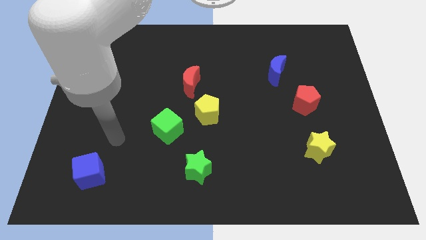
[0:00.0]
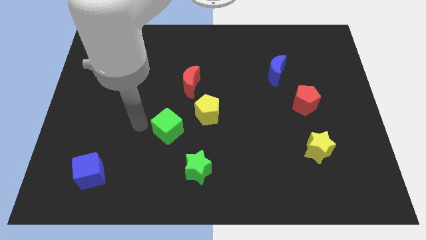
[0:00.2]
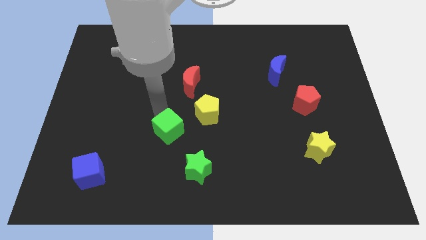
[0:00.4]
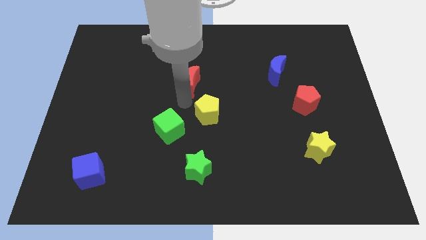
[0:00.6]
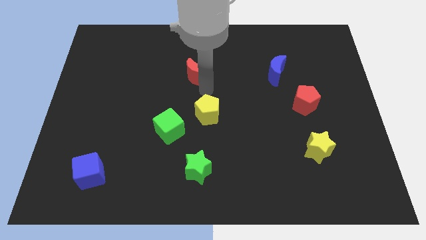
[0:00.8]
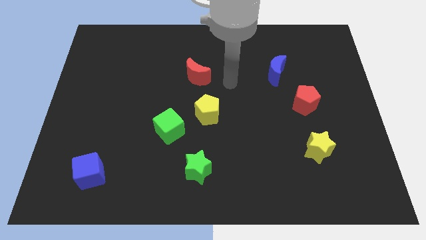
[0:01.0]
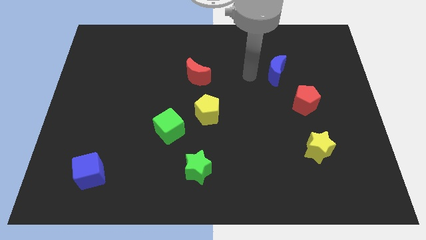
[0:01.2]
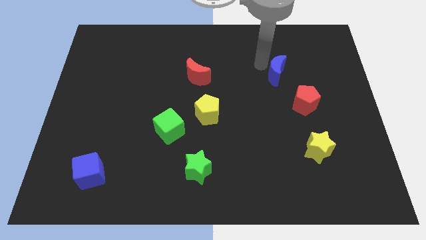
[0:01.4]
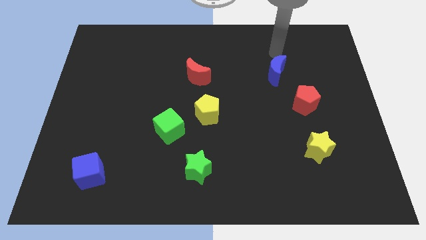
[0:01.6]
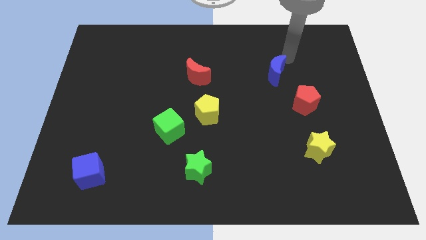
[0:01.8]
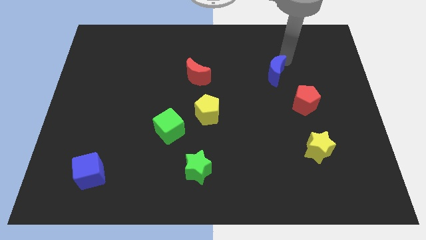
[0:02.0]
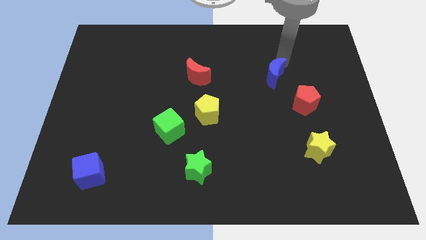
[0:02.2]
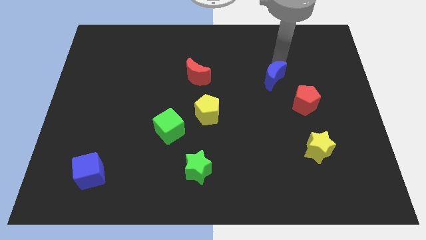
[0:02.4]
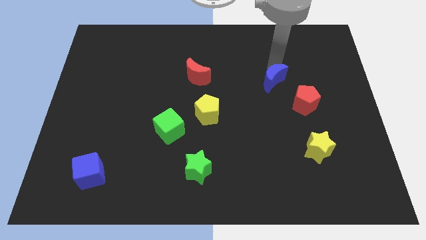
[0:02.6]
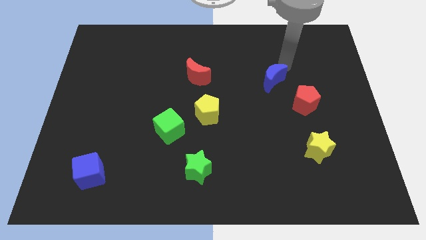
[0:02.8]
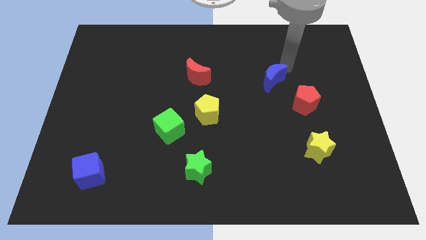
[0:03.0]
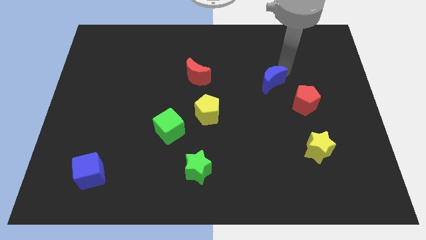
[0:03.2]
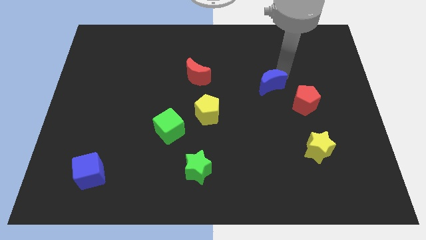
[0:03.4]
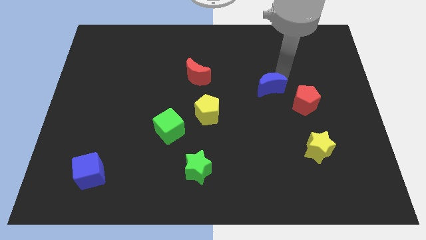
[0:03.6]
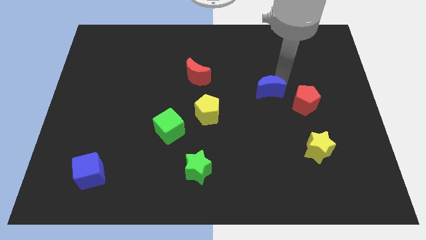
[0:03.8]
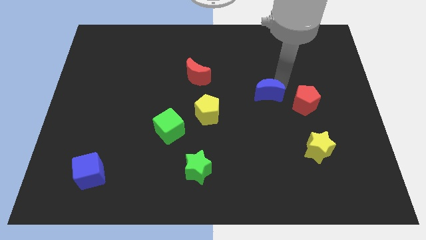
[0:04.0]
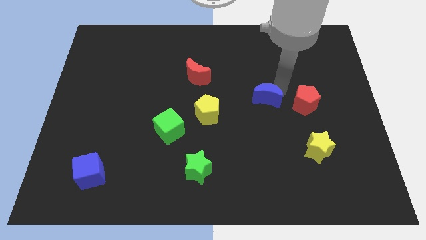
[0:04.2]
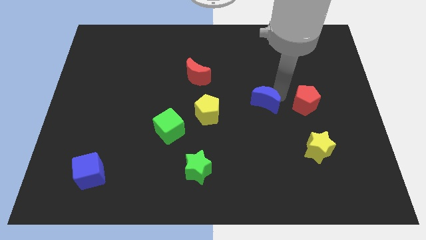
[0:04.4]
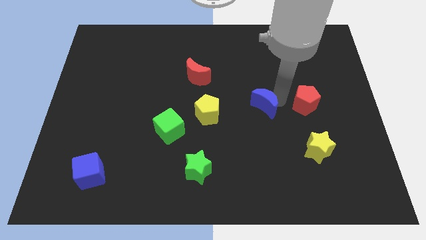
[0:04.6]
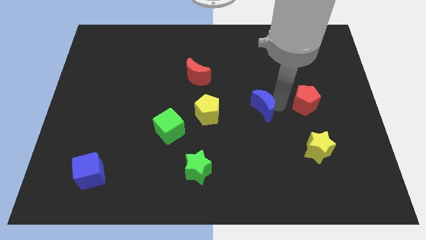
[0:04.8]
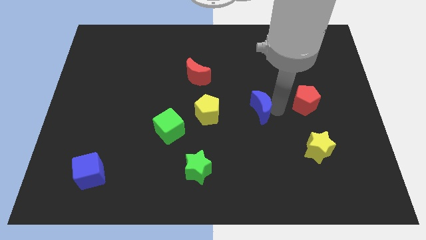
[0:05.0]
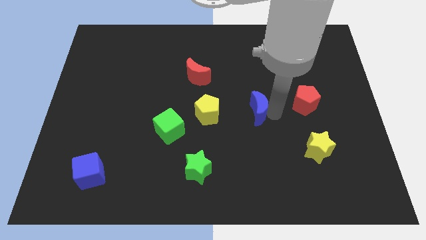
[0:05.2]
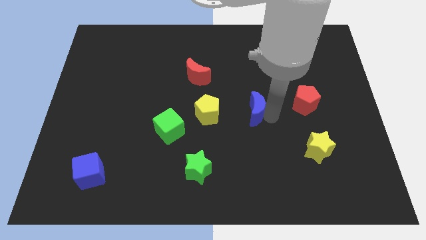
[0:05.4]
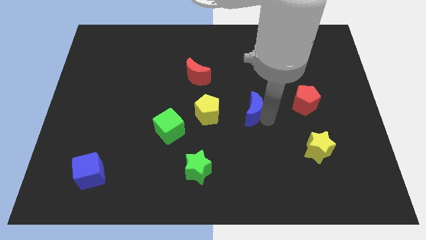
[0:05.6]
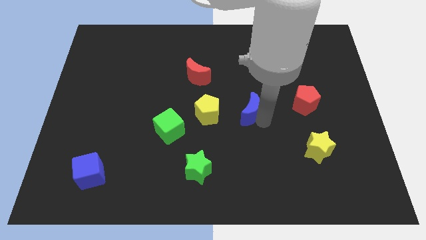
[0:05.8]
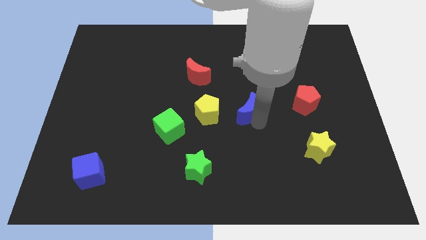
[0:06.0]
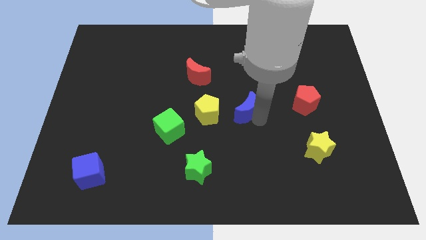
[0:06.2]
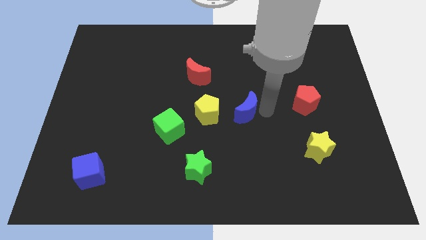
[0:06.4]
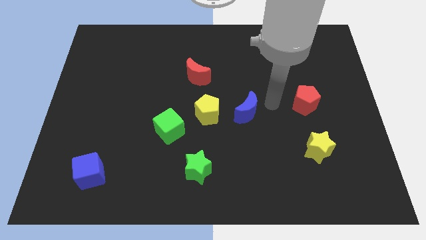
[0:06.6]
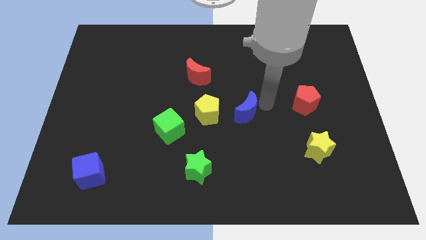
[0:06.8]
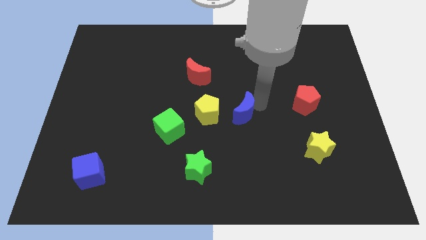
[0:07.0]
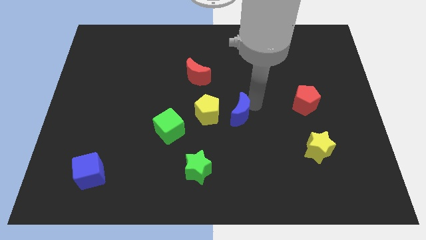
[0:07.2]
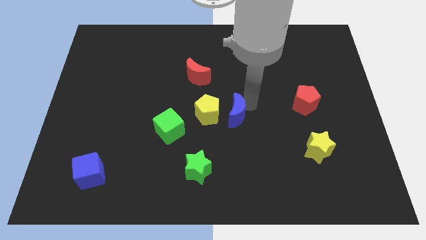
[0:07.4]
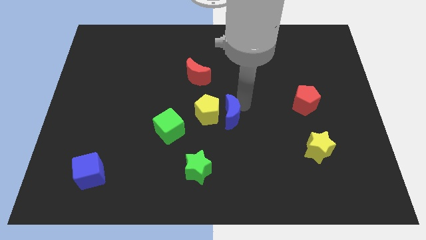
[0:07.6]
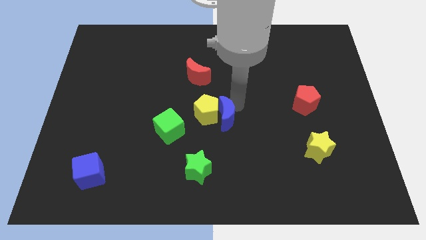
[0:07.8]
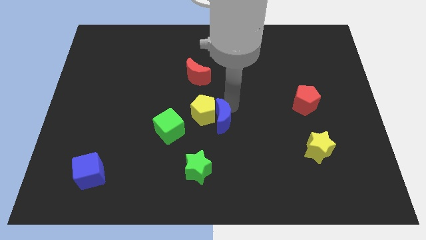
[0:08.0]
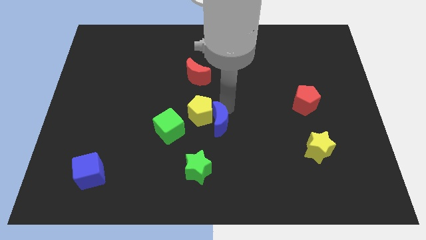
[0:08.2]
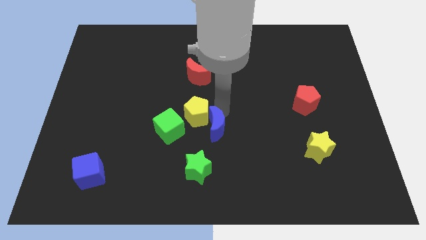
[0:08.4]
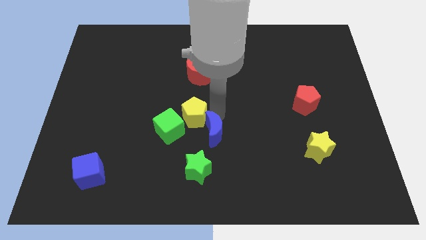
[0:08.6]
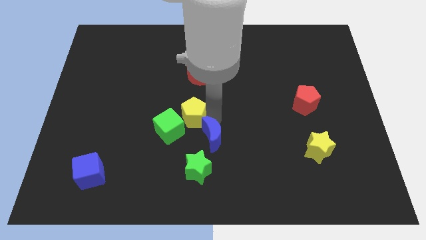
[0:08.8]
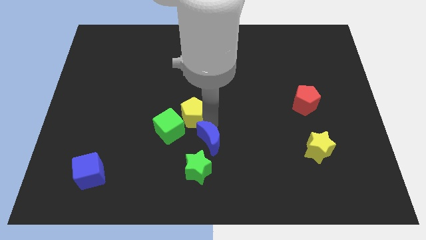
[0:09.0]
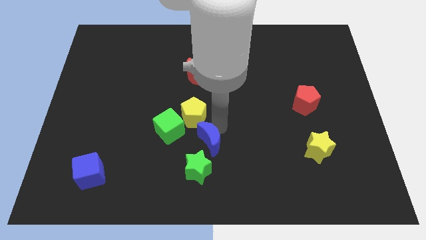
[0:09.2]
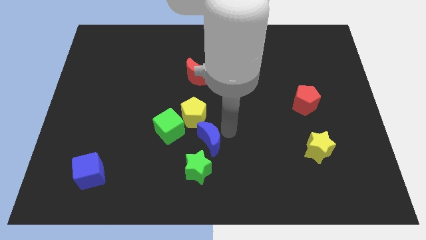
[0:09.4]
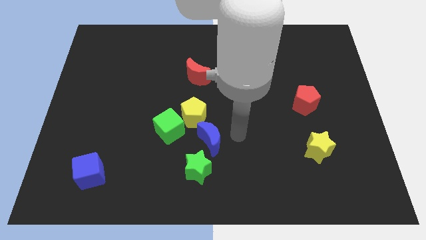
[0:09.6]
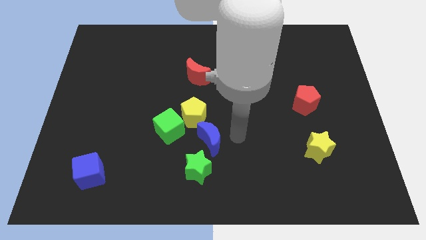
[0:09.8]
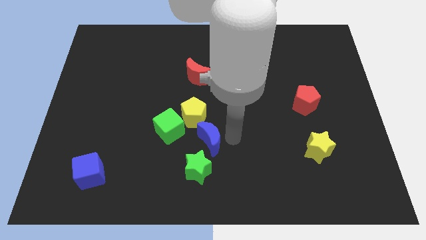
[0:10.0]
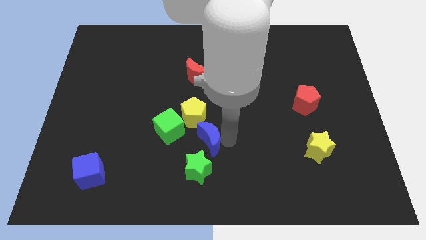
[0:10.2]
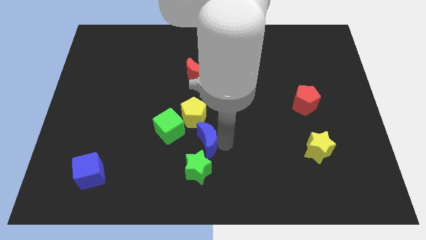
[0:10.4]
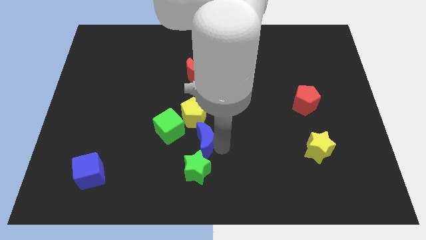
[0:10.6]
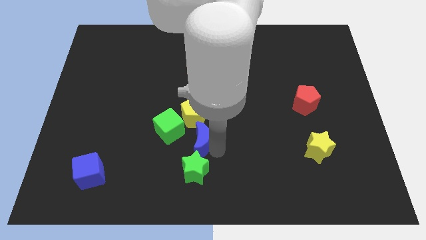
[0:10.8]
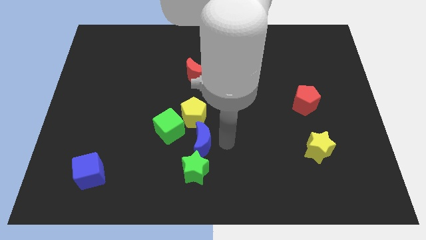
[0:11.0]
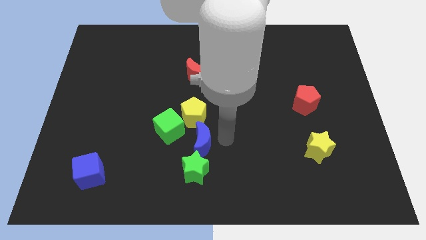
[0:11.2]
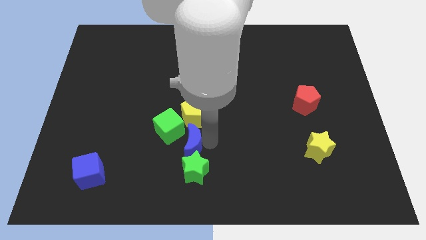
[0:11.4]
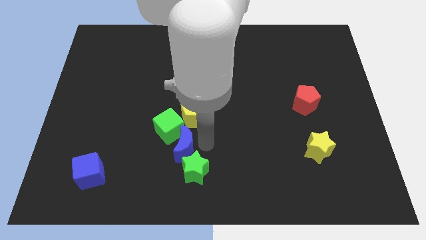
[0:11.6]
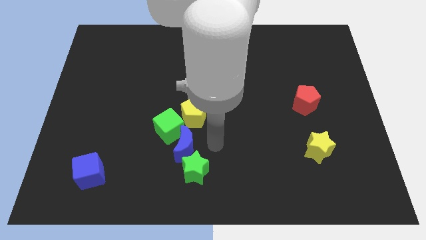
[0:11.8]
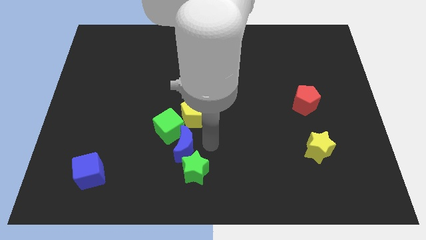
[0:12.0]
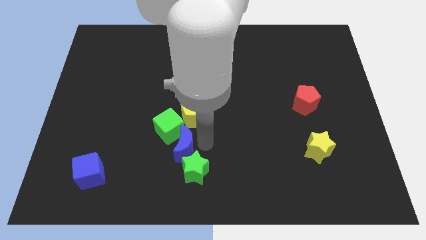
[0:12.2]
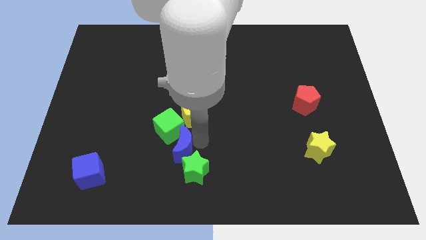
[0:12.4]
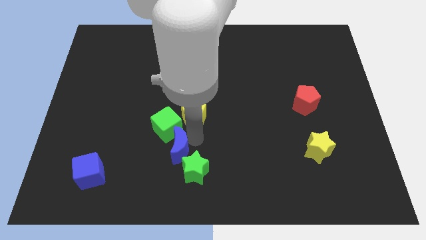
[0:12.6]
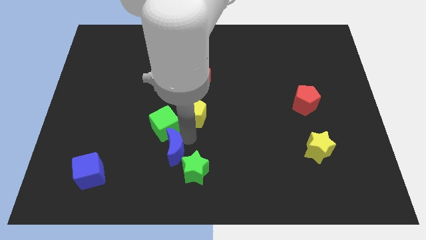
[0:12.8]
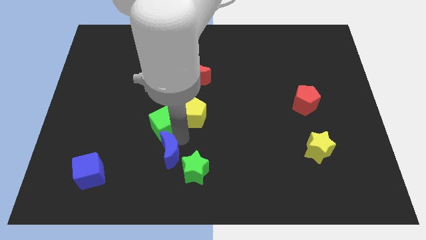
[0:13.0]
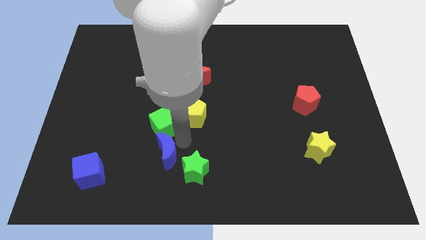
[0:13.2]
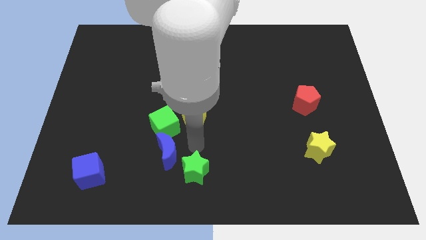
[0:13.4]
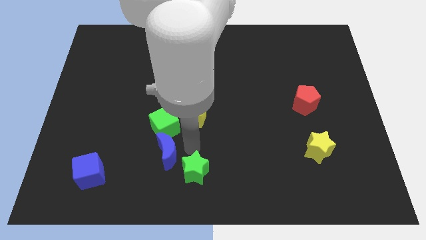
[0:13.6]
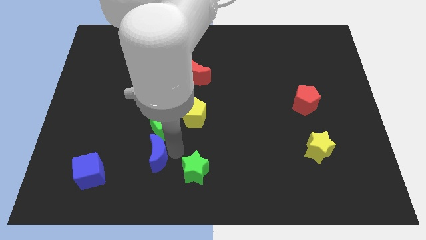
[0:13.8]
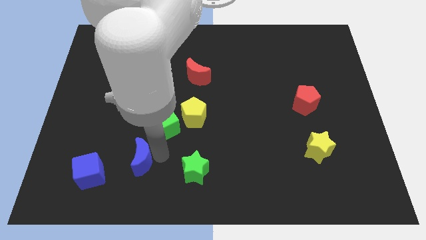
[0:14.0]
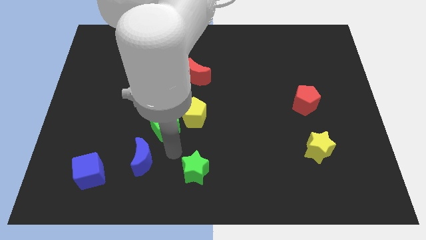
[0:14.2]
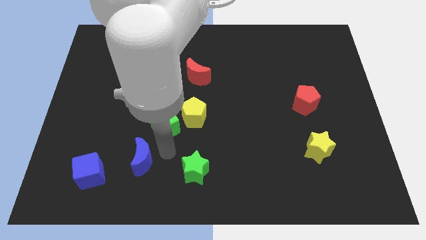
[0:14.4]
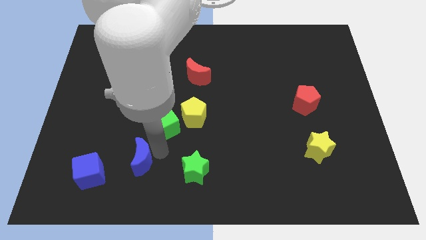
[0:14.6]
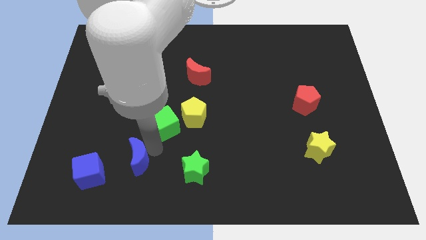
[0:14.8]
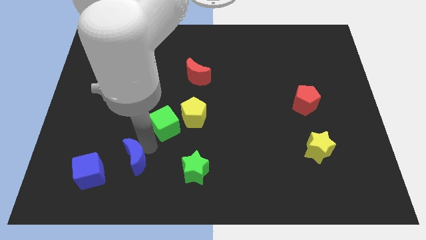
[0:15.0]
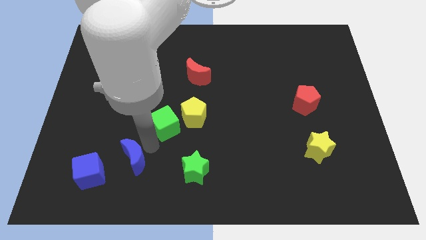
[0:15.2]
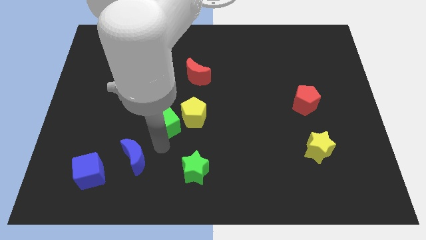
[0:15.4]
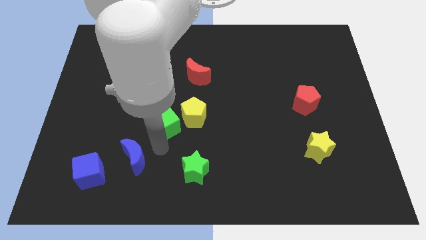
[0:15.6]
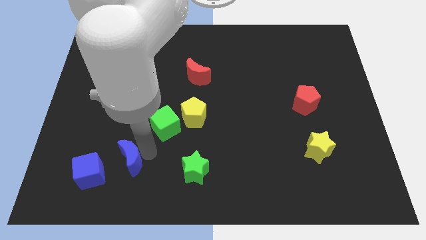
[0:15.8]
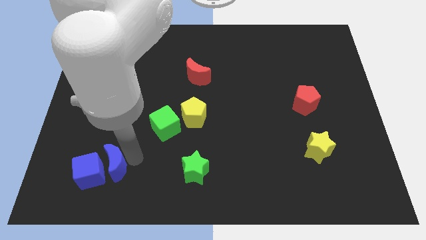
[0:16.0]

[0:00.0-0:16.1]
put the blue moon towards the blue cube
